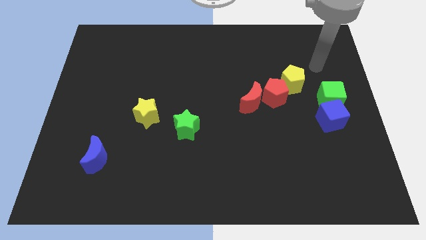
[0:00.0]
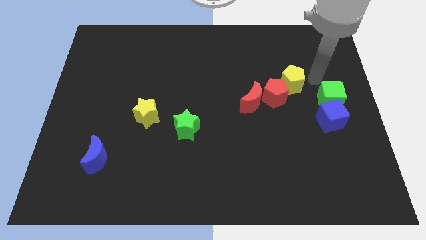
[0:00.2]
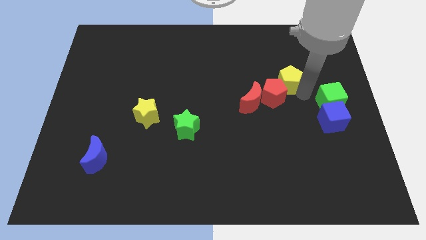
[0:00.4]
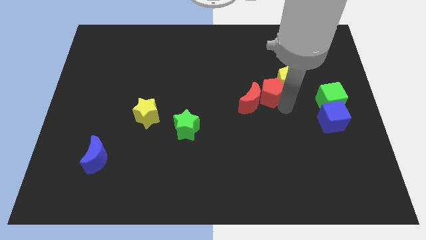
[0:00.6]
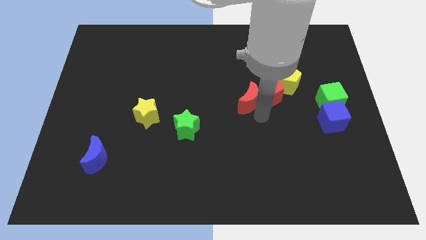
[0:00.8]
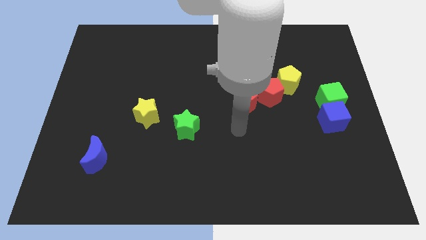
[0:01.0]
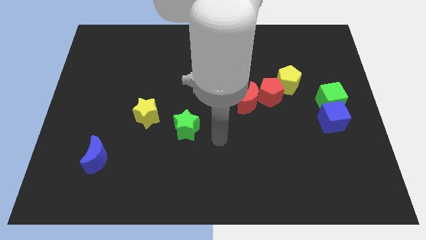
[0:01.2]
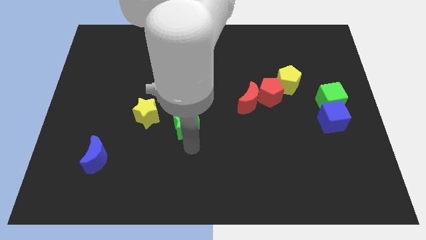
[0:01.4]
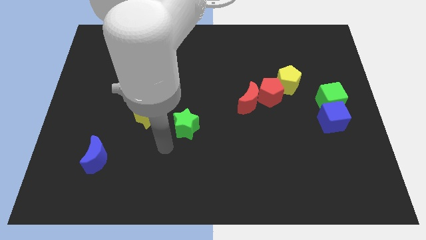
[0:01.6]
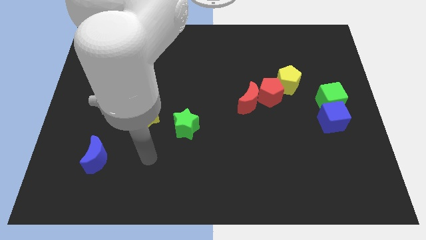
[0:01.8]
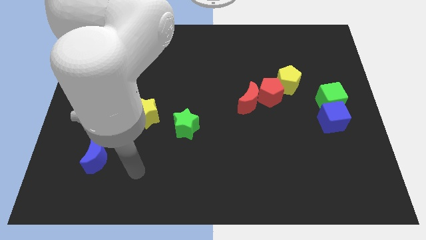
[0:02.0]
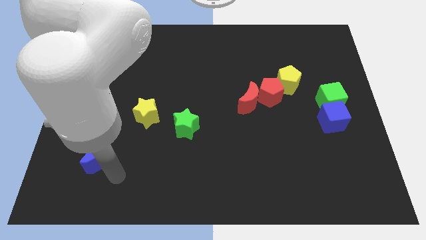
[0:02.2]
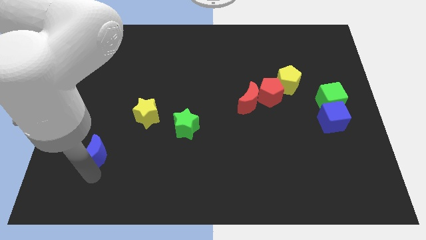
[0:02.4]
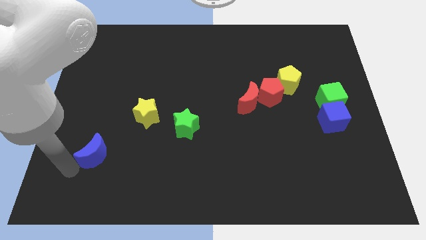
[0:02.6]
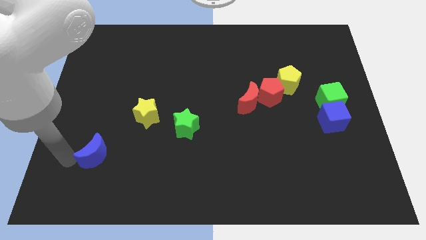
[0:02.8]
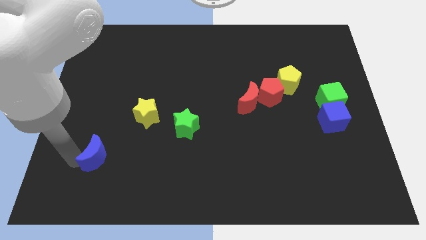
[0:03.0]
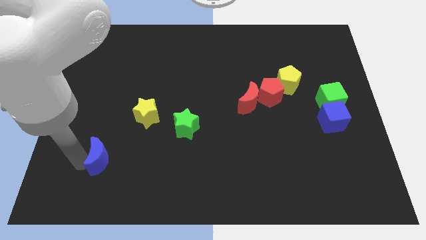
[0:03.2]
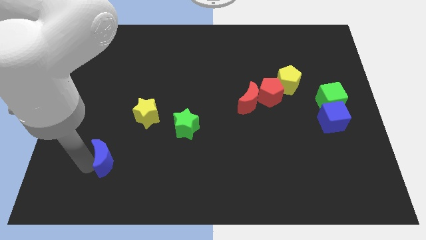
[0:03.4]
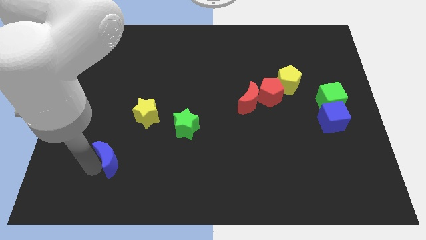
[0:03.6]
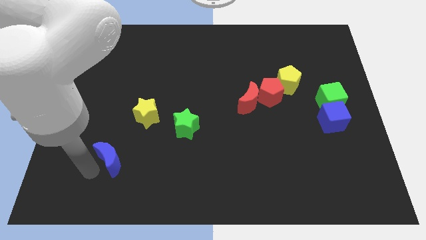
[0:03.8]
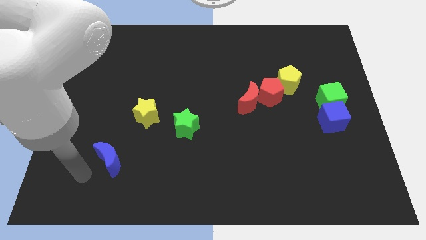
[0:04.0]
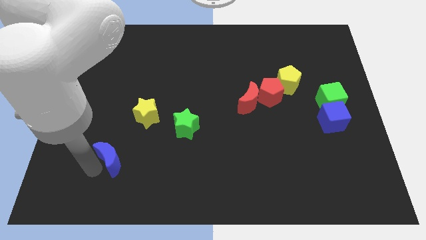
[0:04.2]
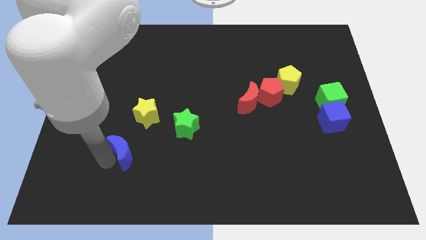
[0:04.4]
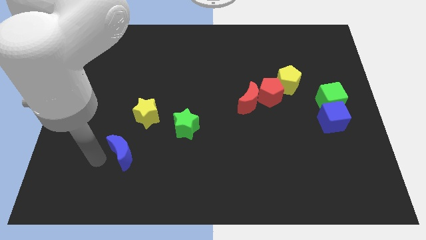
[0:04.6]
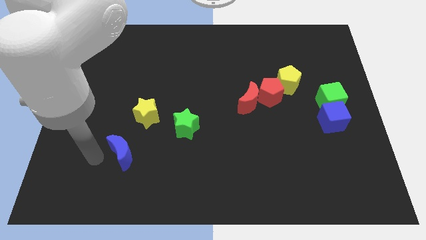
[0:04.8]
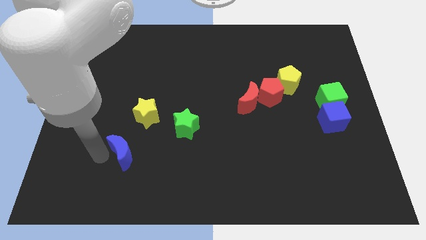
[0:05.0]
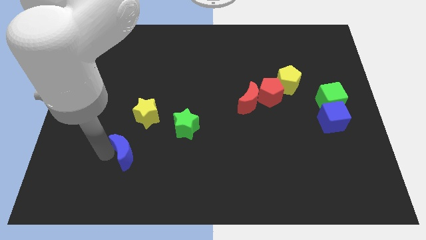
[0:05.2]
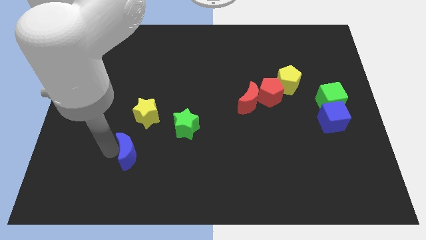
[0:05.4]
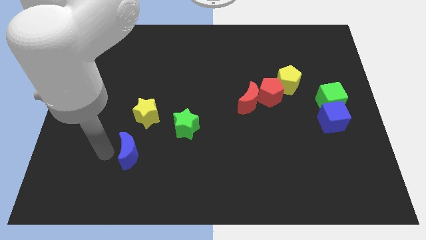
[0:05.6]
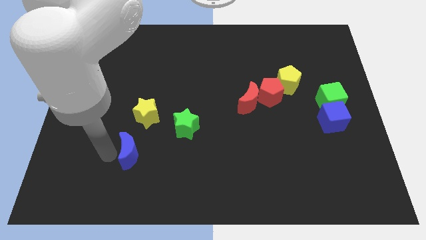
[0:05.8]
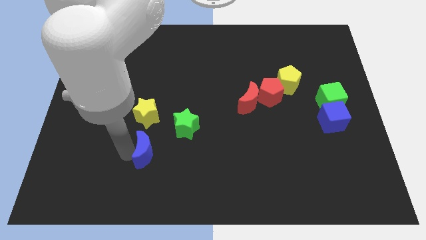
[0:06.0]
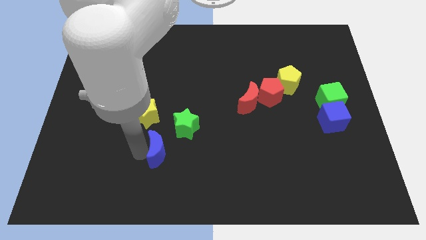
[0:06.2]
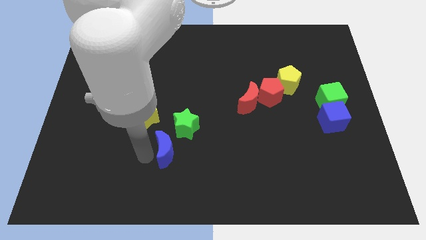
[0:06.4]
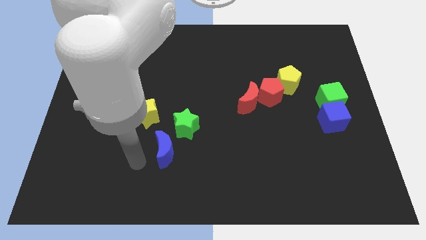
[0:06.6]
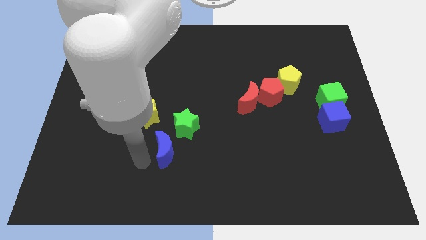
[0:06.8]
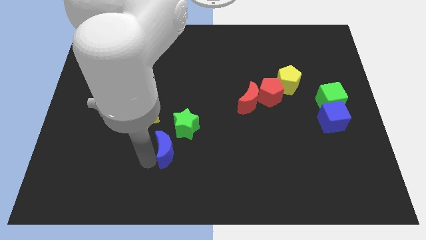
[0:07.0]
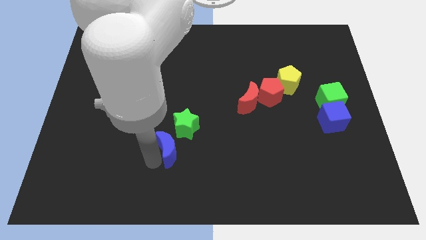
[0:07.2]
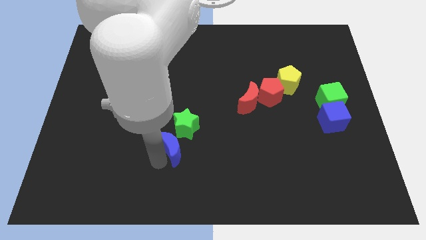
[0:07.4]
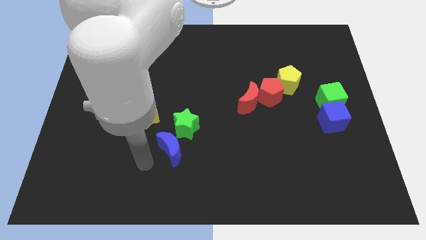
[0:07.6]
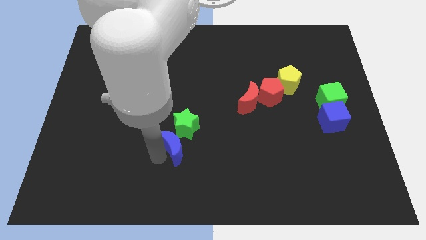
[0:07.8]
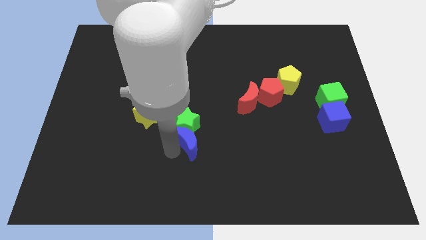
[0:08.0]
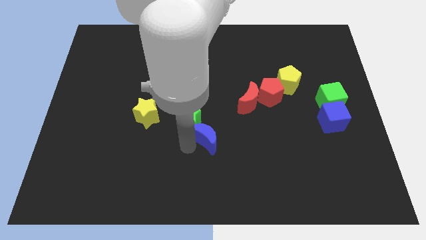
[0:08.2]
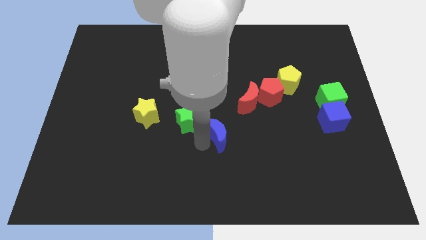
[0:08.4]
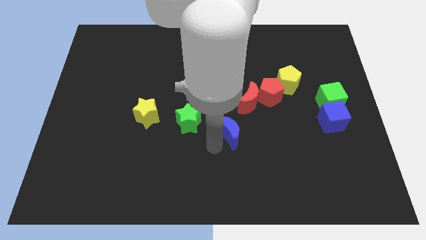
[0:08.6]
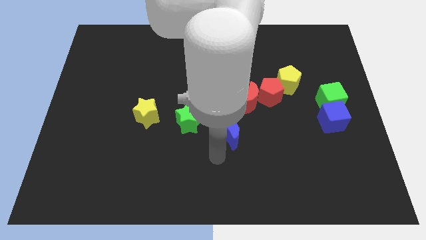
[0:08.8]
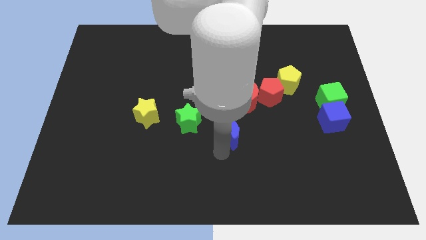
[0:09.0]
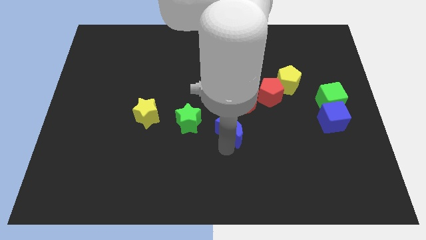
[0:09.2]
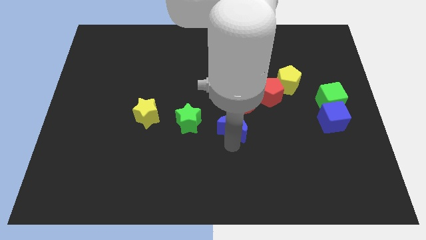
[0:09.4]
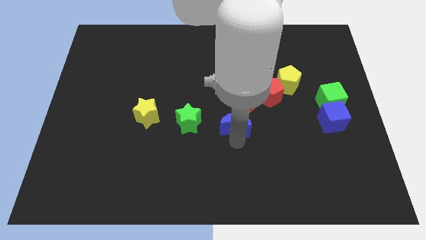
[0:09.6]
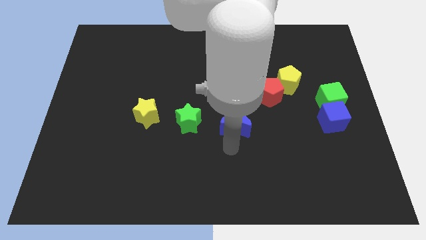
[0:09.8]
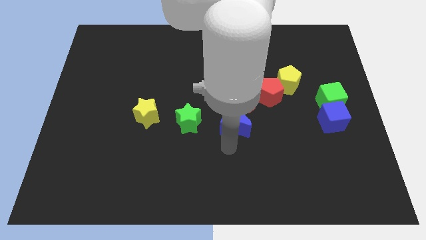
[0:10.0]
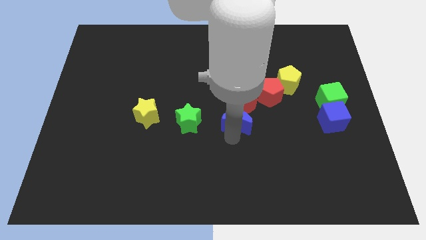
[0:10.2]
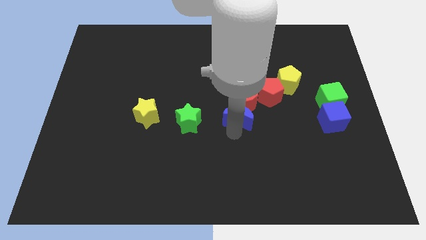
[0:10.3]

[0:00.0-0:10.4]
move the blue moon close to the red moon

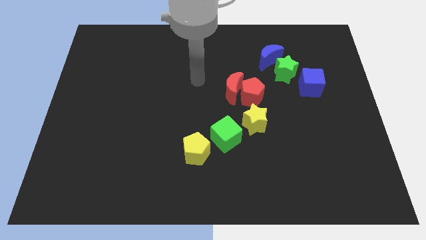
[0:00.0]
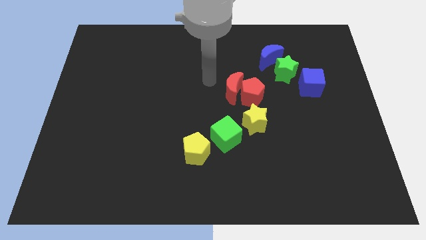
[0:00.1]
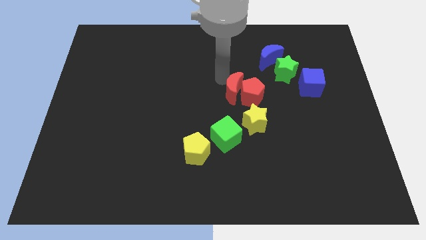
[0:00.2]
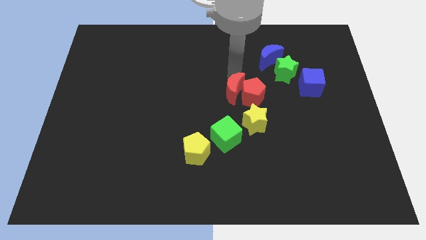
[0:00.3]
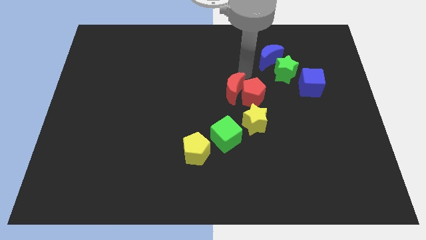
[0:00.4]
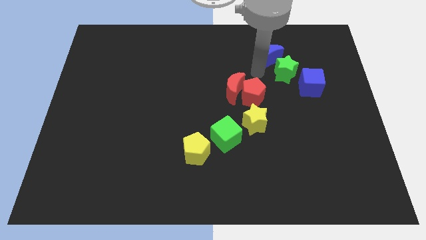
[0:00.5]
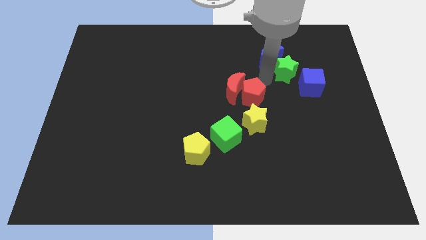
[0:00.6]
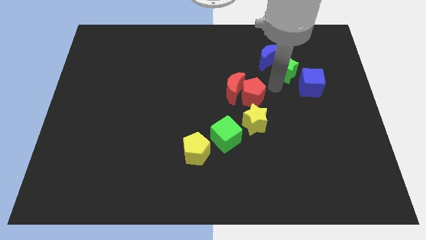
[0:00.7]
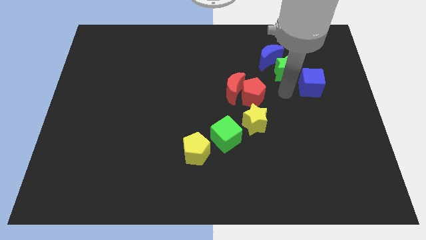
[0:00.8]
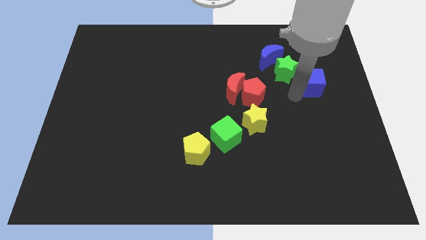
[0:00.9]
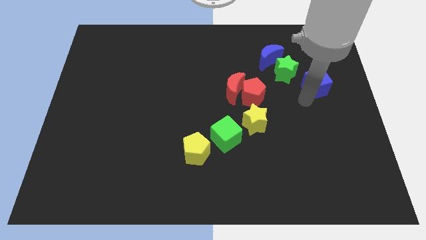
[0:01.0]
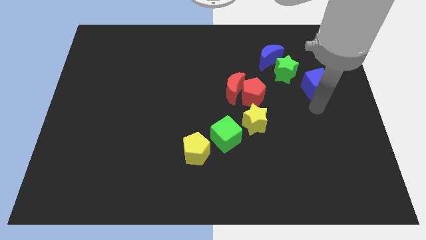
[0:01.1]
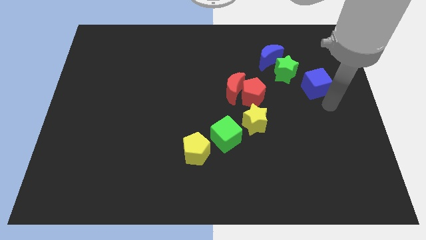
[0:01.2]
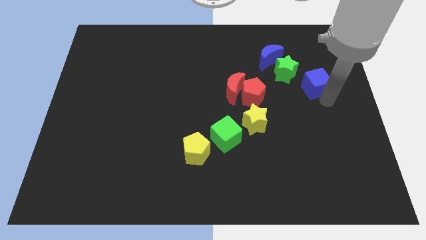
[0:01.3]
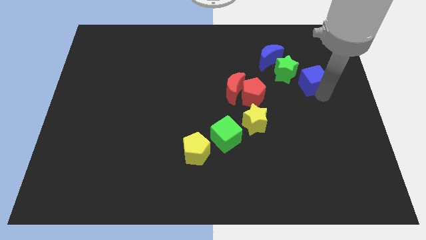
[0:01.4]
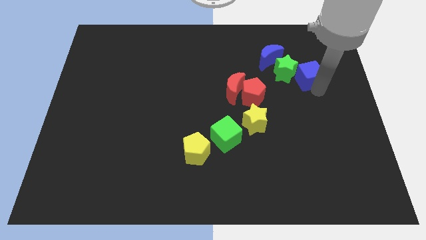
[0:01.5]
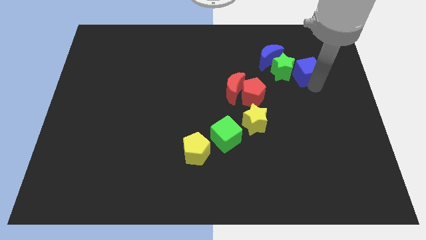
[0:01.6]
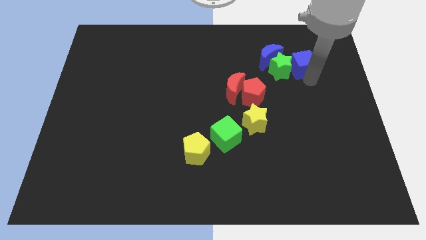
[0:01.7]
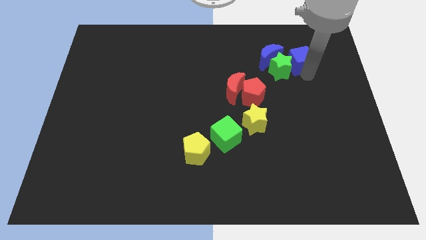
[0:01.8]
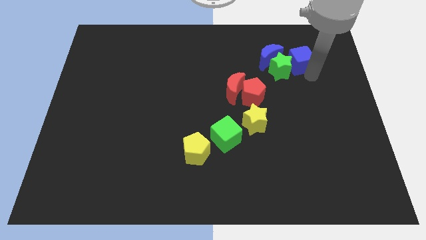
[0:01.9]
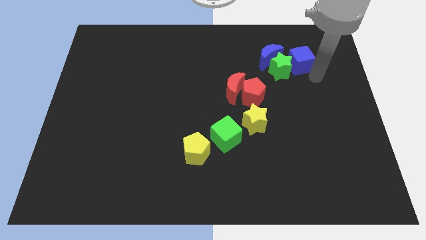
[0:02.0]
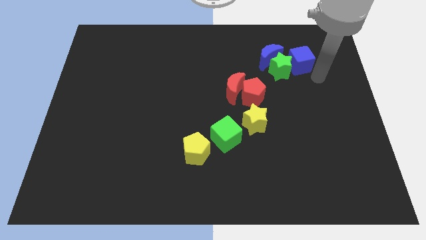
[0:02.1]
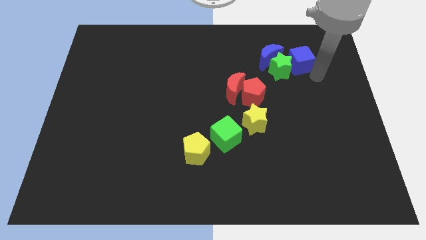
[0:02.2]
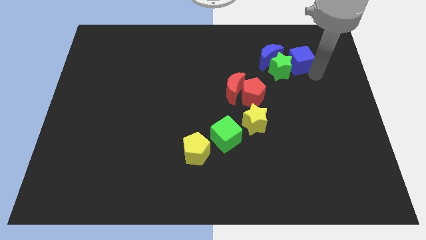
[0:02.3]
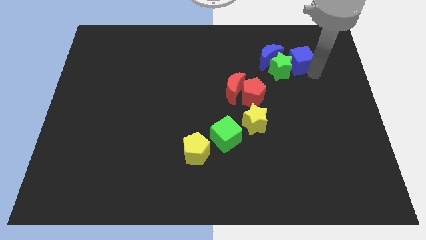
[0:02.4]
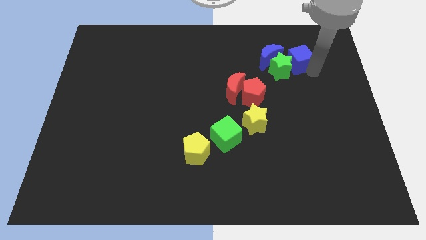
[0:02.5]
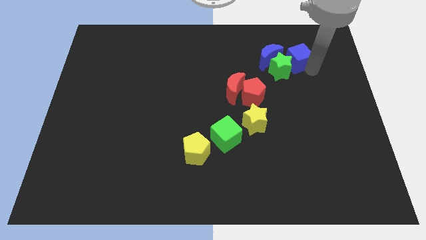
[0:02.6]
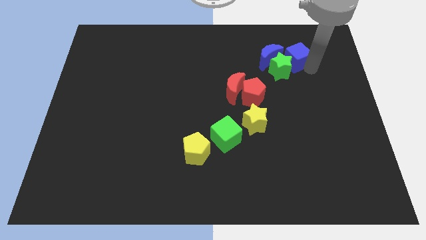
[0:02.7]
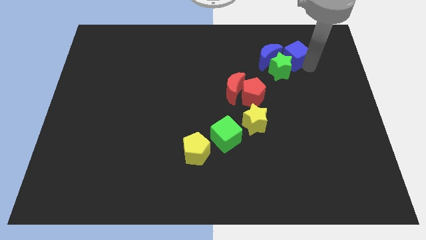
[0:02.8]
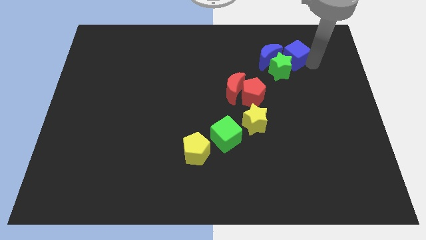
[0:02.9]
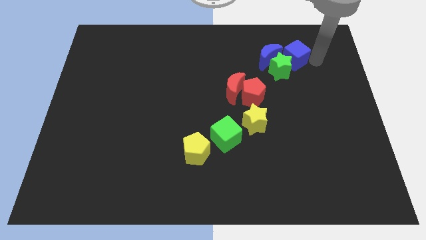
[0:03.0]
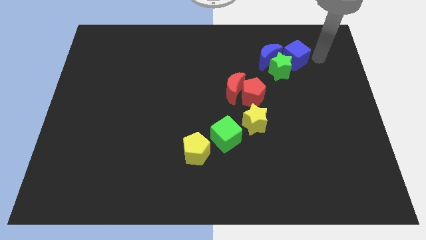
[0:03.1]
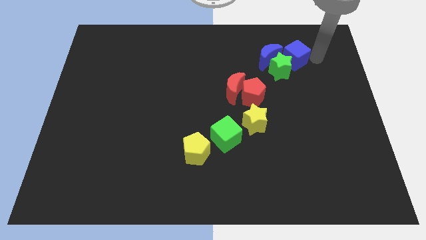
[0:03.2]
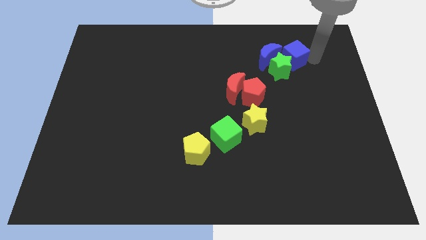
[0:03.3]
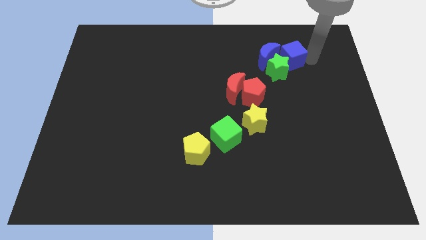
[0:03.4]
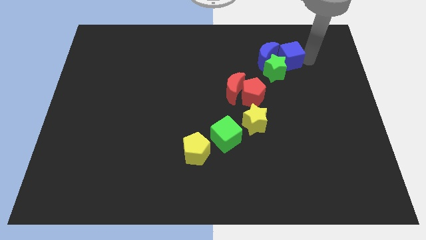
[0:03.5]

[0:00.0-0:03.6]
push the blue cube next to the blue moon
